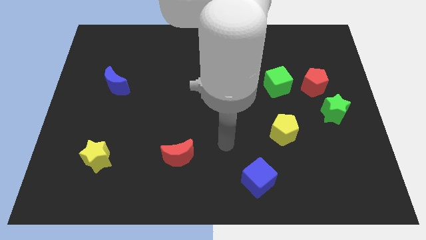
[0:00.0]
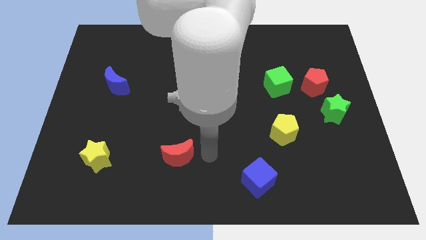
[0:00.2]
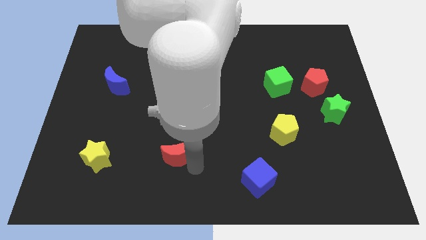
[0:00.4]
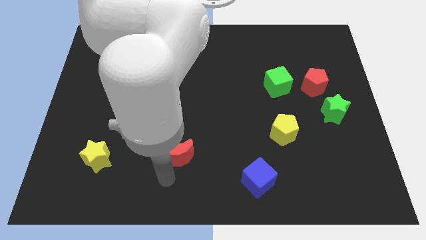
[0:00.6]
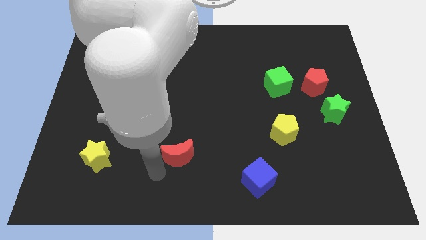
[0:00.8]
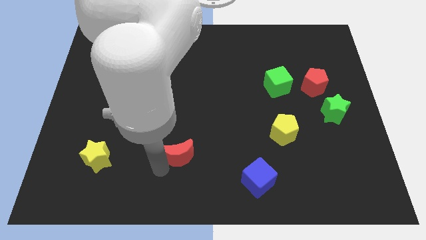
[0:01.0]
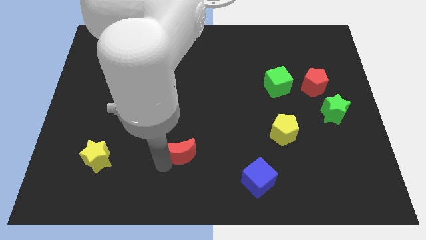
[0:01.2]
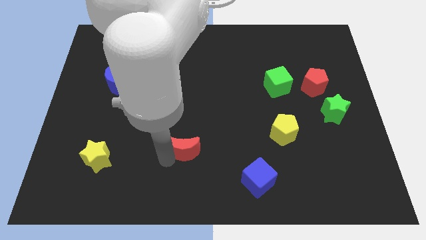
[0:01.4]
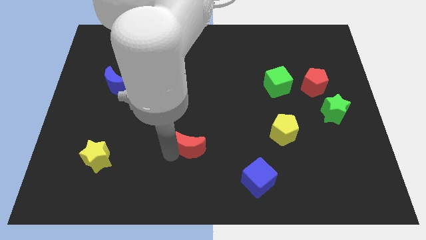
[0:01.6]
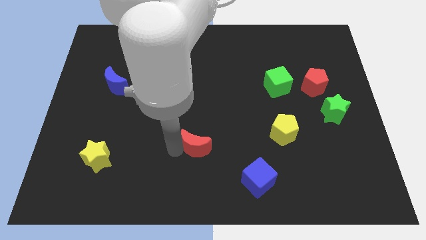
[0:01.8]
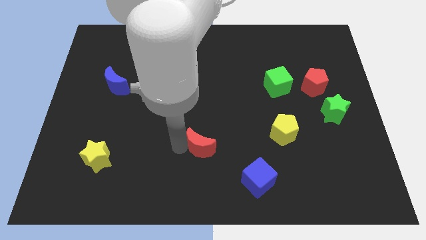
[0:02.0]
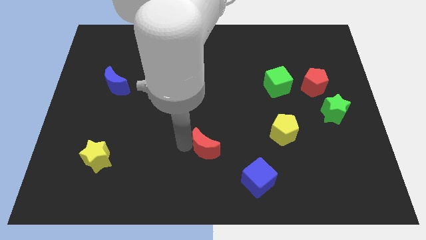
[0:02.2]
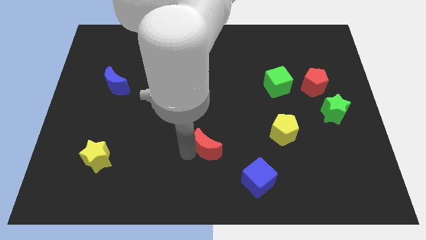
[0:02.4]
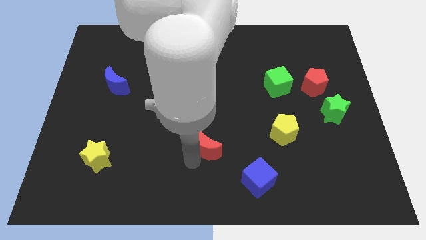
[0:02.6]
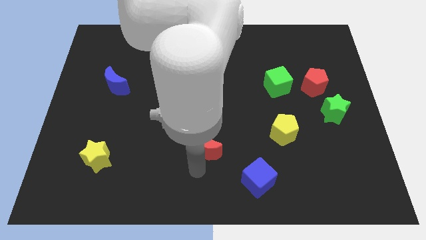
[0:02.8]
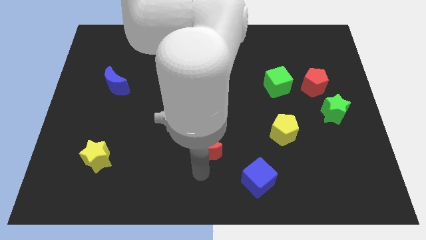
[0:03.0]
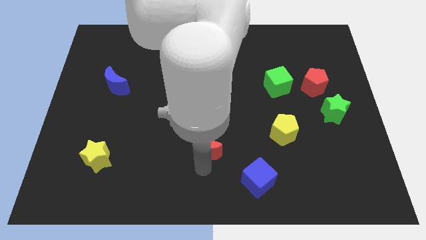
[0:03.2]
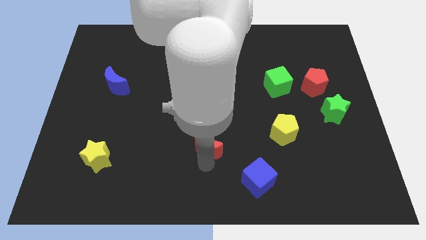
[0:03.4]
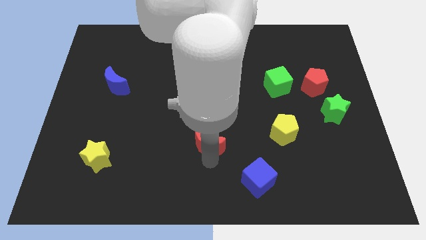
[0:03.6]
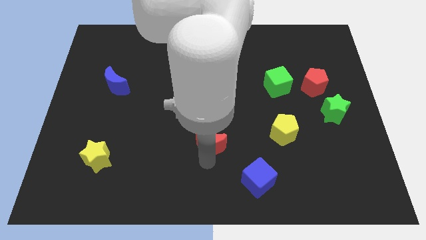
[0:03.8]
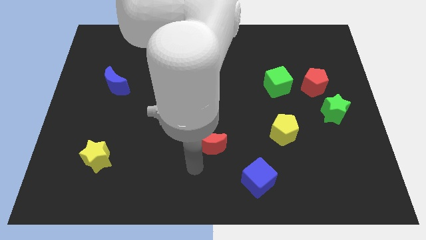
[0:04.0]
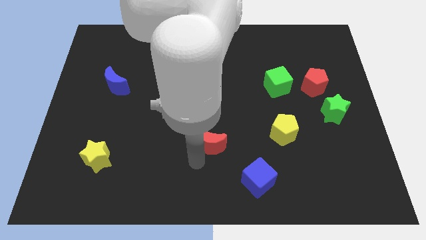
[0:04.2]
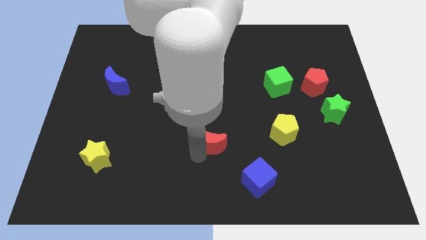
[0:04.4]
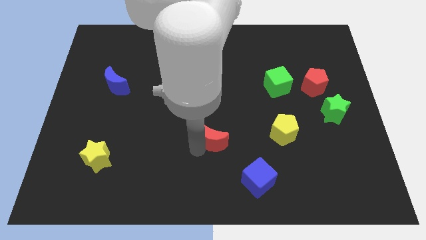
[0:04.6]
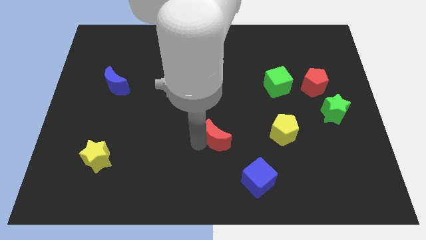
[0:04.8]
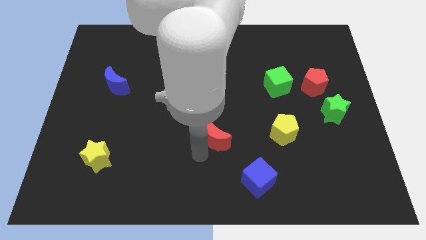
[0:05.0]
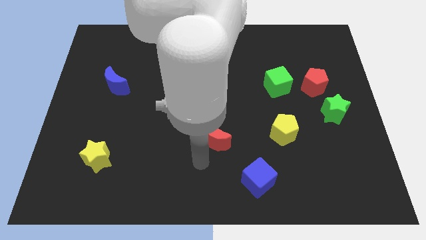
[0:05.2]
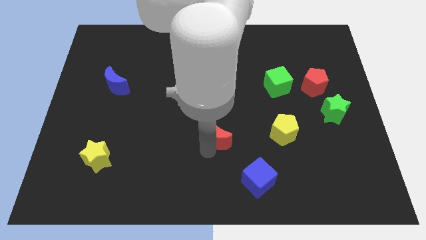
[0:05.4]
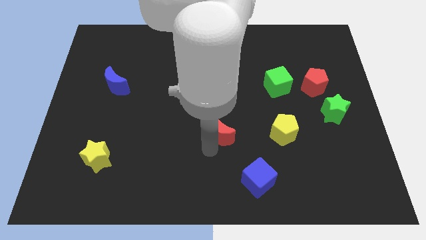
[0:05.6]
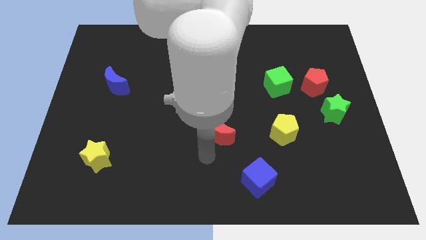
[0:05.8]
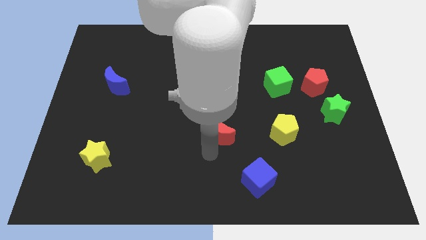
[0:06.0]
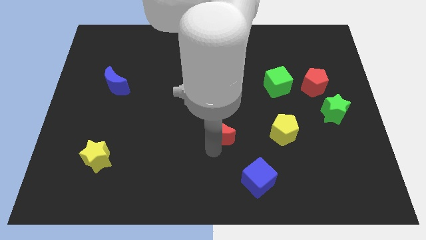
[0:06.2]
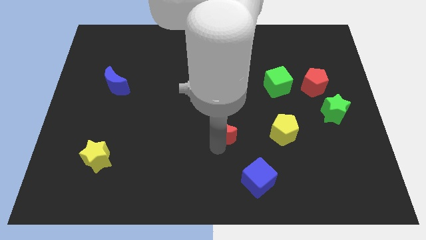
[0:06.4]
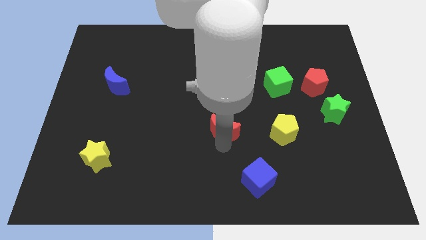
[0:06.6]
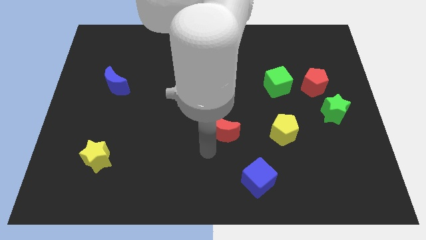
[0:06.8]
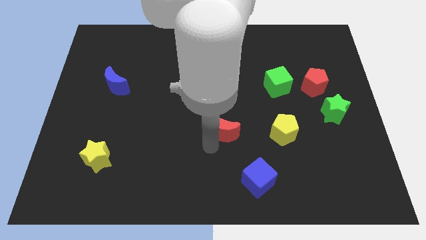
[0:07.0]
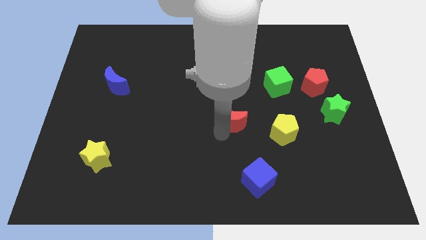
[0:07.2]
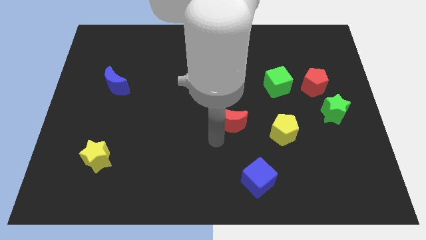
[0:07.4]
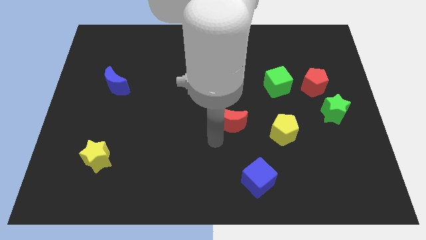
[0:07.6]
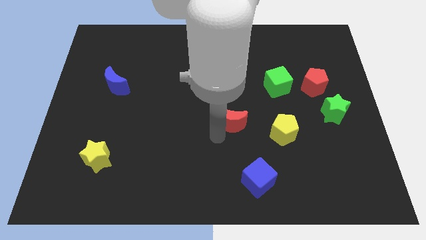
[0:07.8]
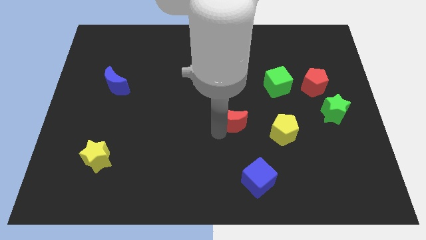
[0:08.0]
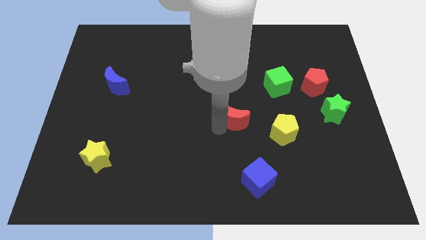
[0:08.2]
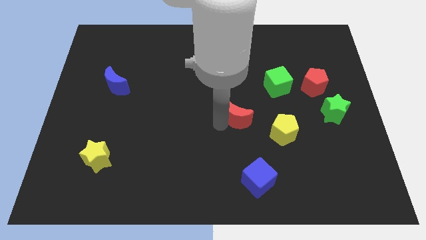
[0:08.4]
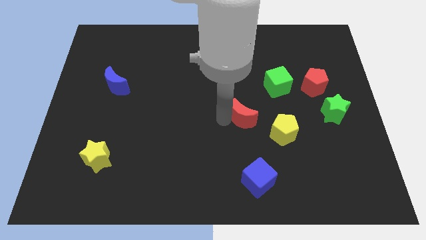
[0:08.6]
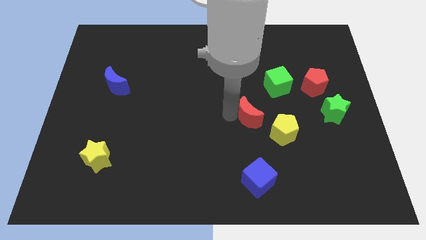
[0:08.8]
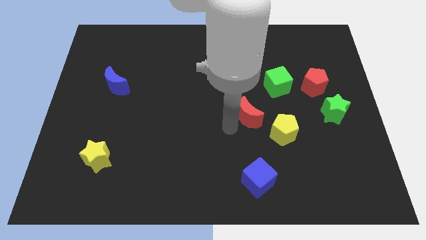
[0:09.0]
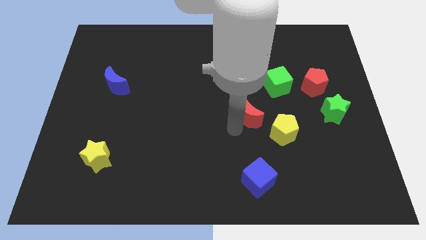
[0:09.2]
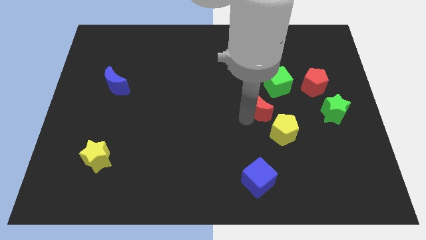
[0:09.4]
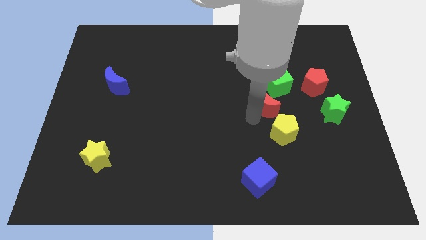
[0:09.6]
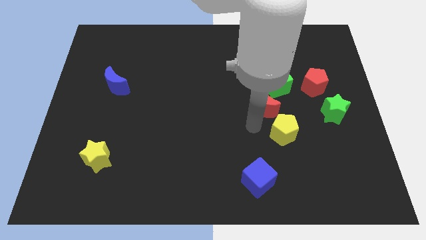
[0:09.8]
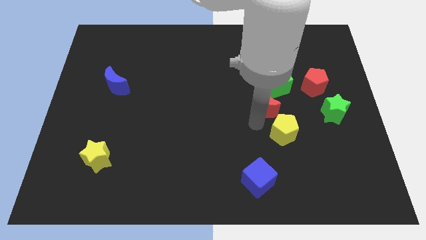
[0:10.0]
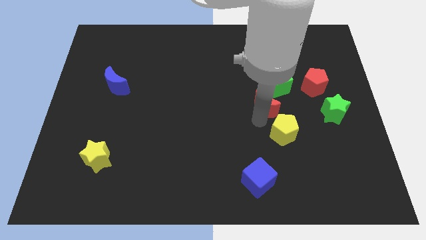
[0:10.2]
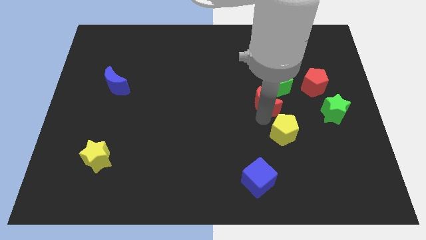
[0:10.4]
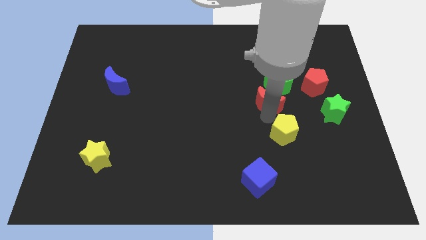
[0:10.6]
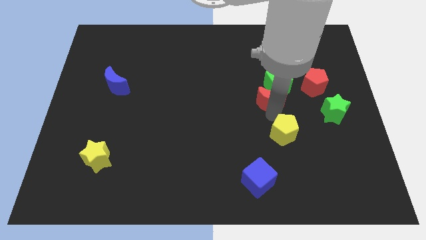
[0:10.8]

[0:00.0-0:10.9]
slide the red moon to the green cube

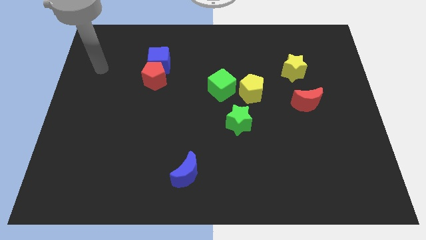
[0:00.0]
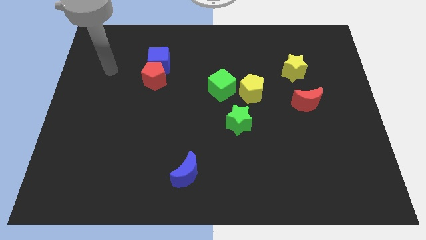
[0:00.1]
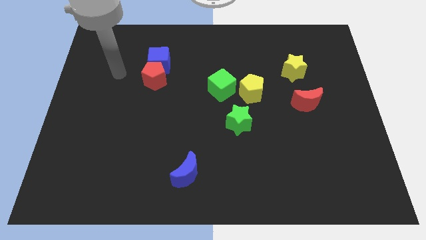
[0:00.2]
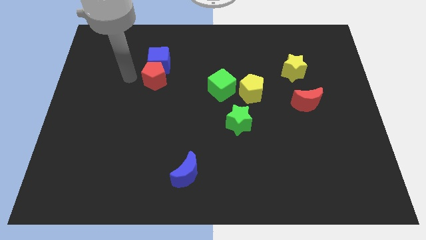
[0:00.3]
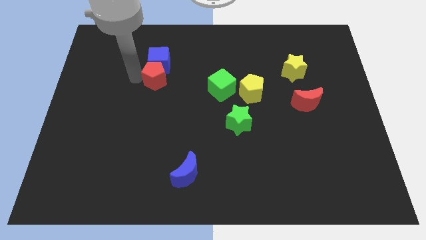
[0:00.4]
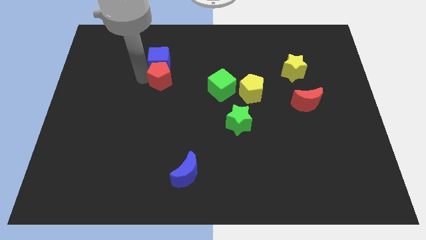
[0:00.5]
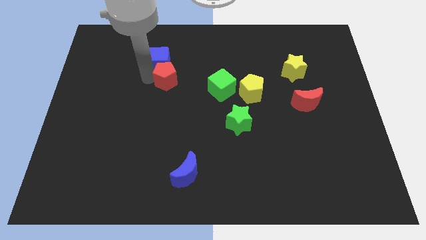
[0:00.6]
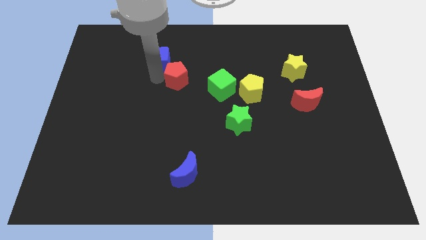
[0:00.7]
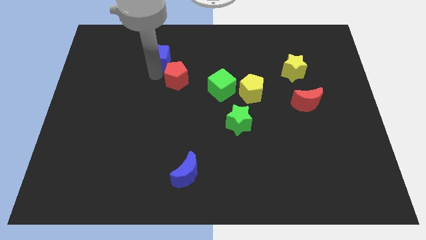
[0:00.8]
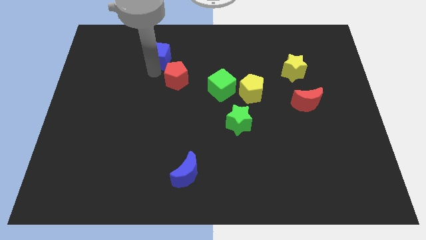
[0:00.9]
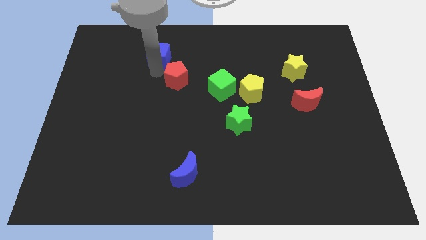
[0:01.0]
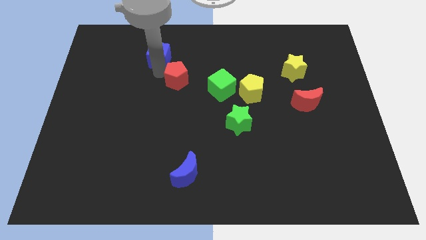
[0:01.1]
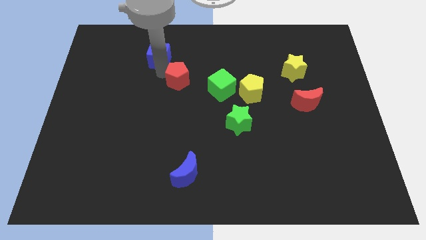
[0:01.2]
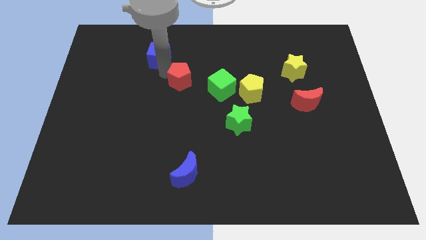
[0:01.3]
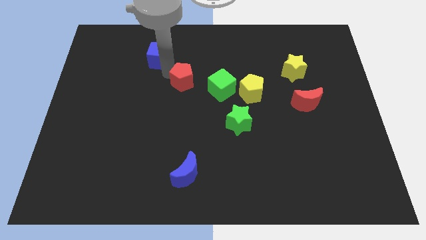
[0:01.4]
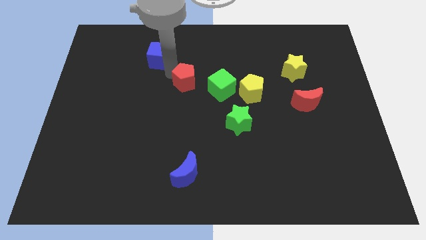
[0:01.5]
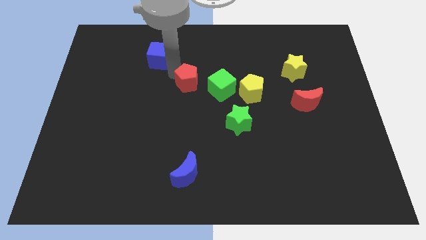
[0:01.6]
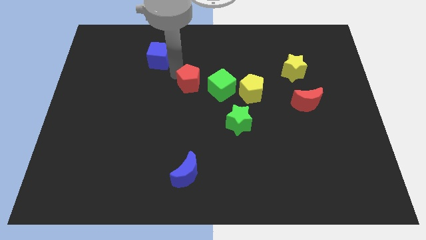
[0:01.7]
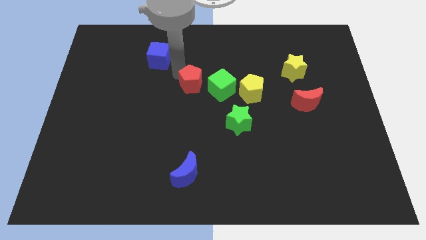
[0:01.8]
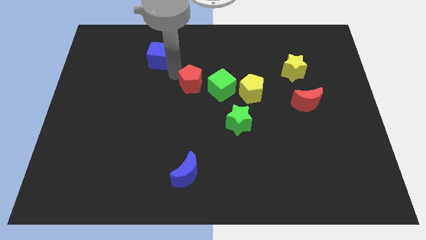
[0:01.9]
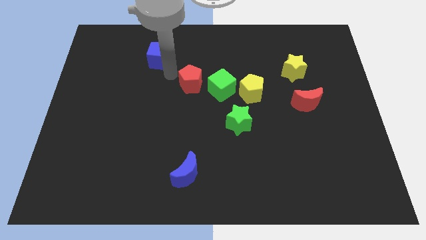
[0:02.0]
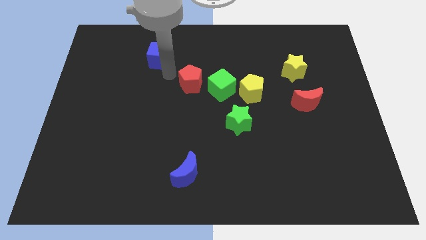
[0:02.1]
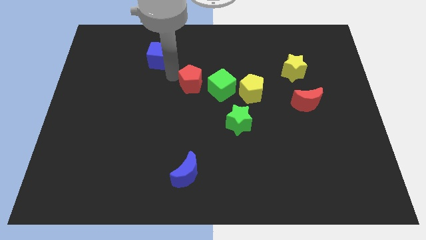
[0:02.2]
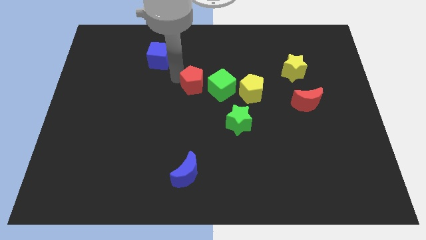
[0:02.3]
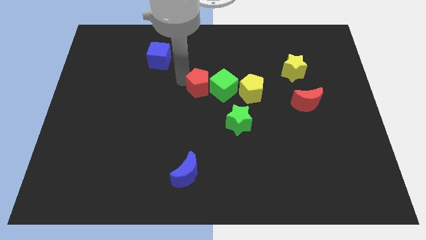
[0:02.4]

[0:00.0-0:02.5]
slide the red pentagon next to the green cube
